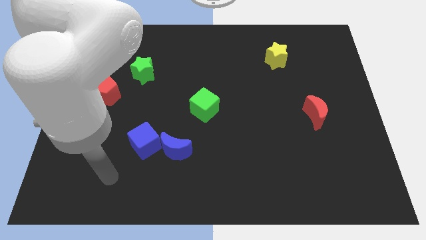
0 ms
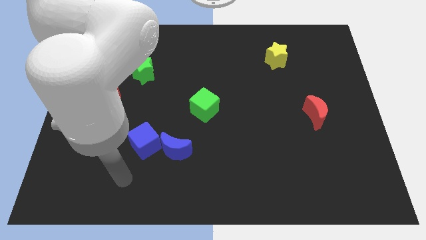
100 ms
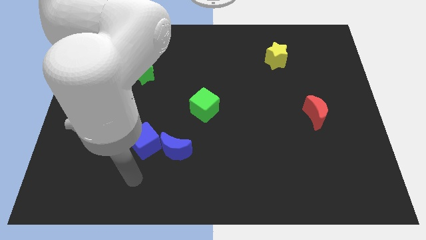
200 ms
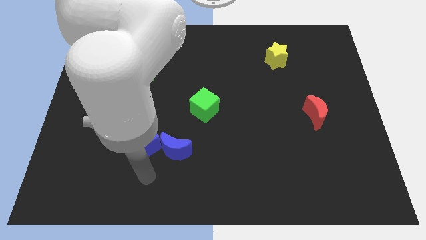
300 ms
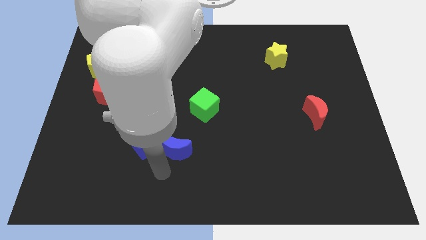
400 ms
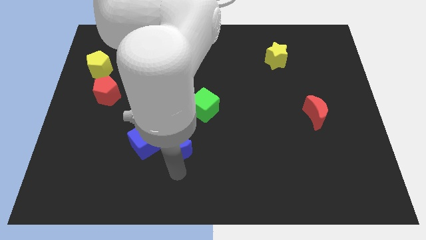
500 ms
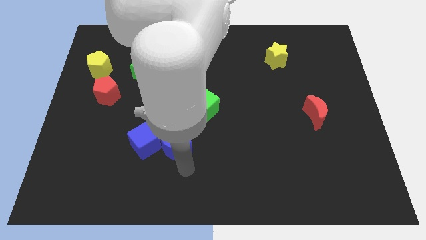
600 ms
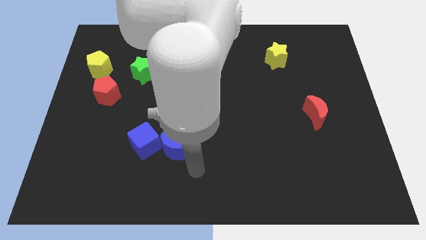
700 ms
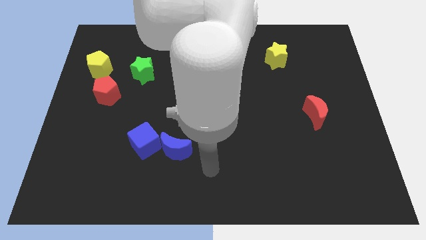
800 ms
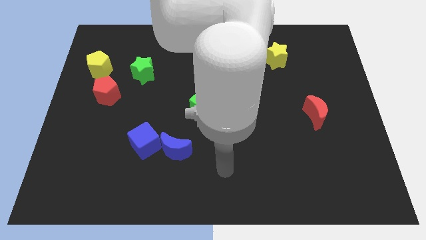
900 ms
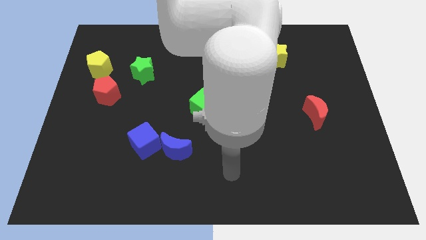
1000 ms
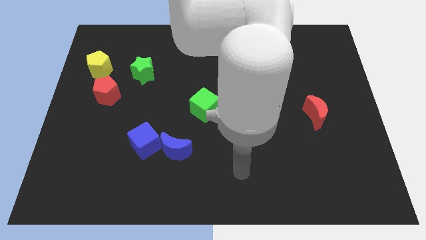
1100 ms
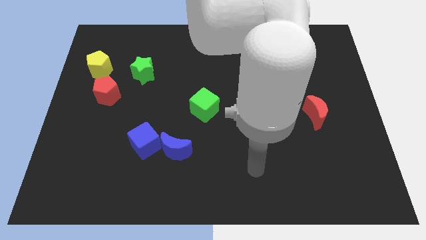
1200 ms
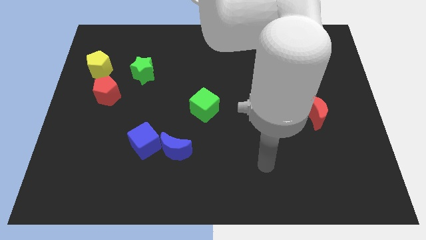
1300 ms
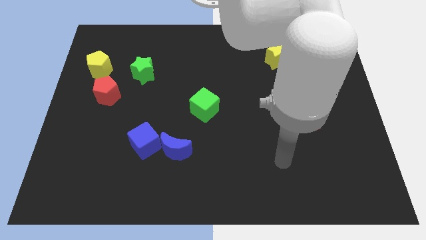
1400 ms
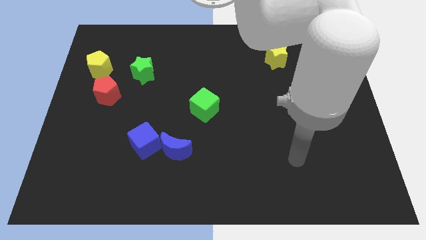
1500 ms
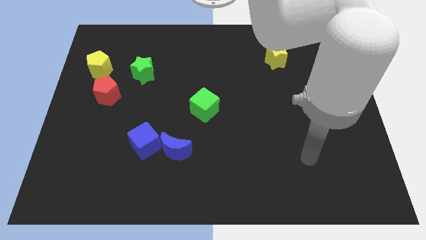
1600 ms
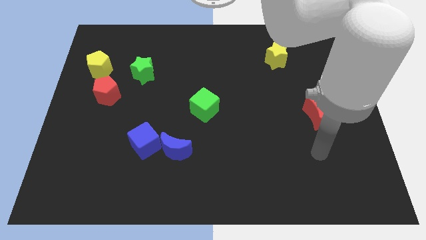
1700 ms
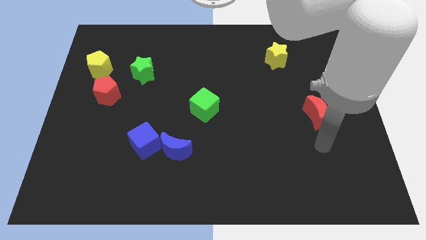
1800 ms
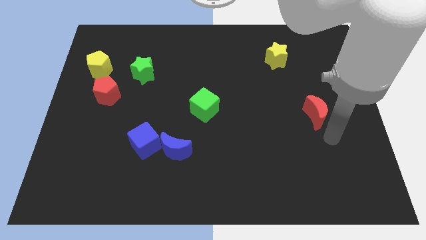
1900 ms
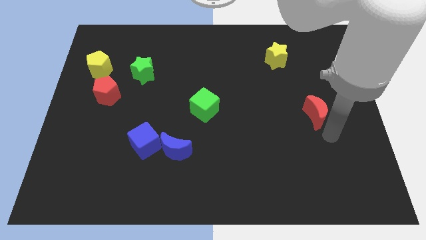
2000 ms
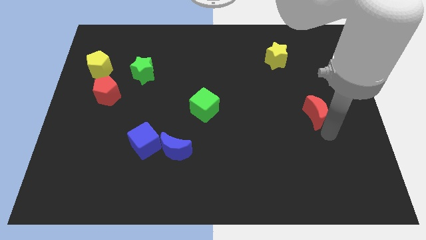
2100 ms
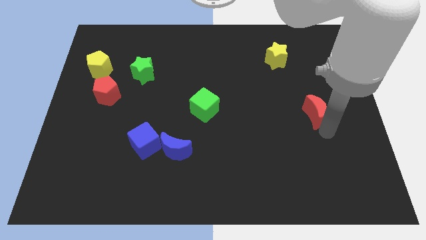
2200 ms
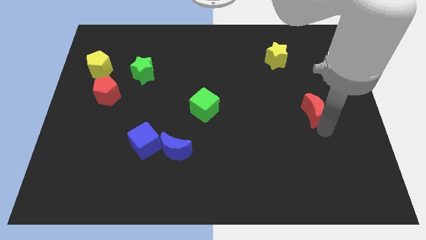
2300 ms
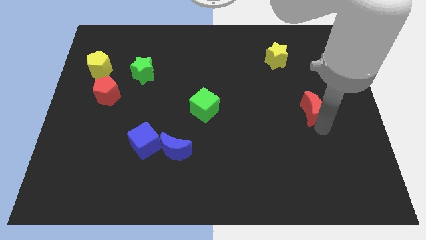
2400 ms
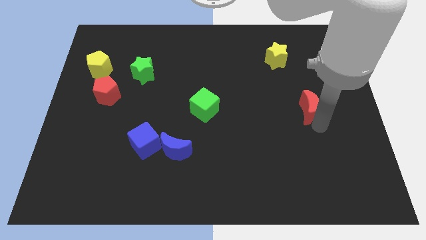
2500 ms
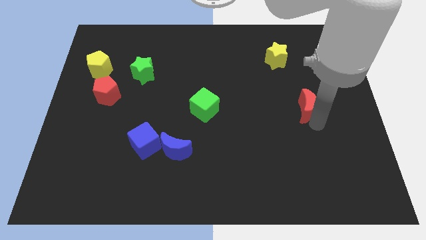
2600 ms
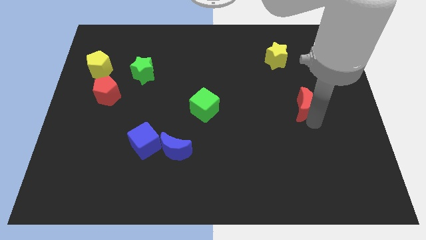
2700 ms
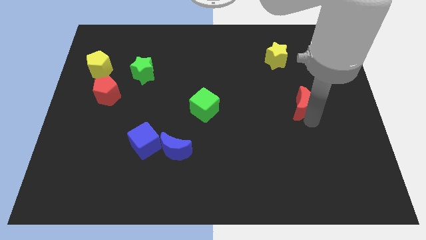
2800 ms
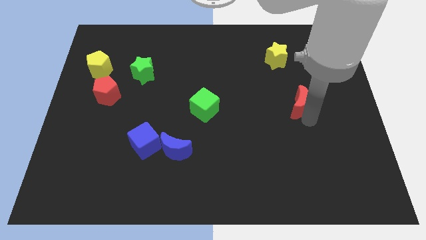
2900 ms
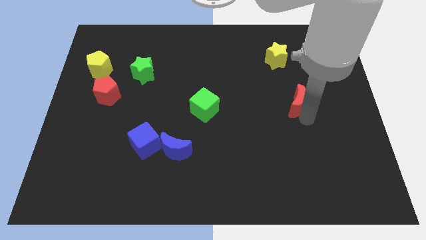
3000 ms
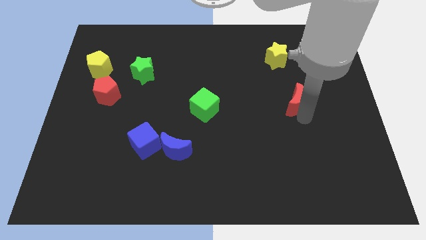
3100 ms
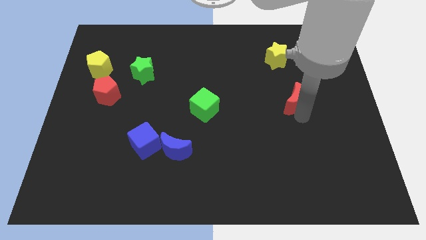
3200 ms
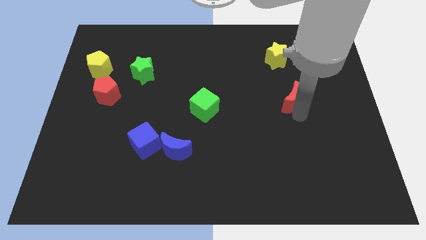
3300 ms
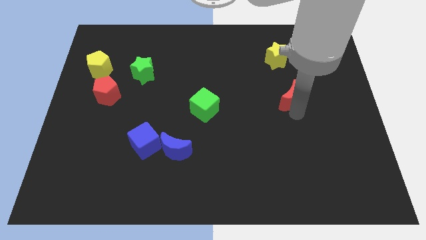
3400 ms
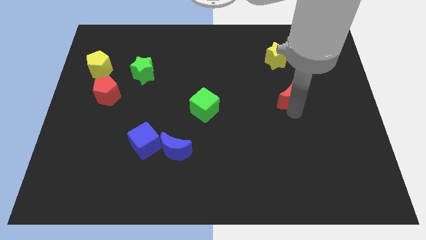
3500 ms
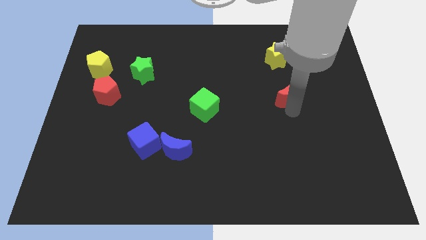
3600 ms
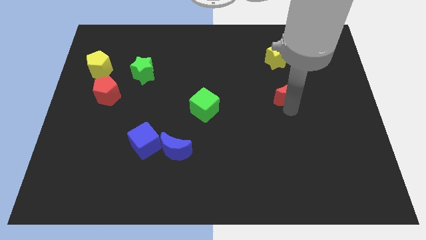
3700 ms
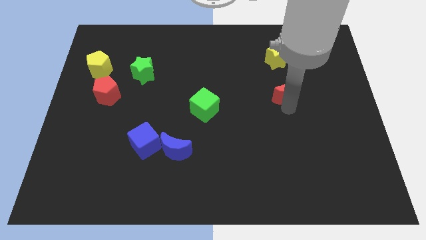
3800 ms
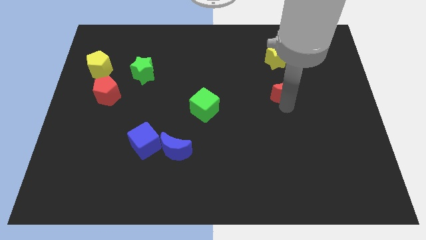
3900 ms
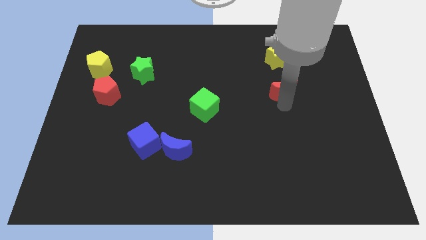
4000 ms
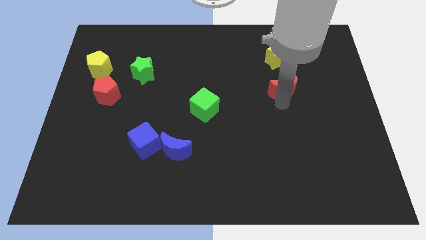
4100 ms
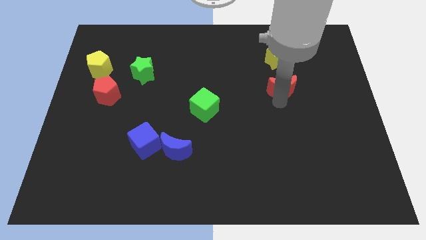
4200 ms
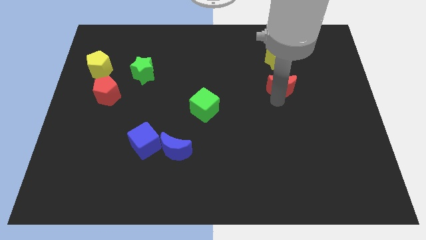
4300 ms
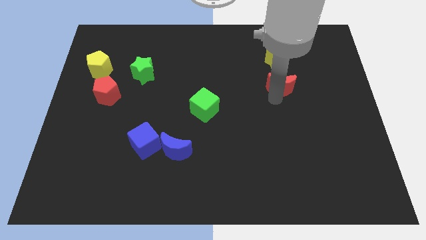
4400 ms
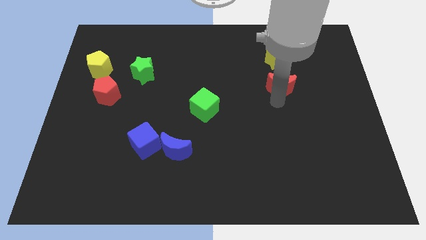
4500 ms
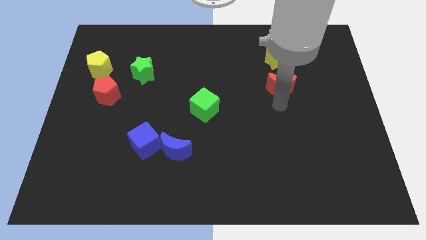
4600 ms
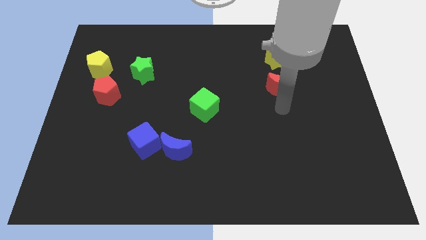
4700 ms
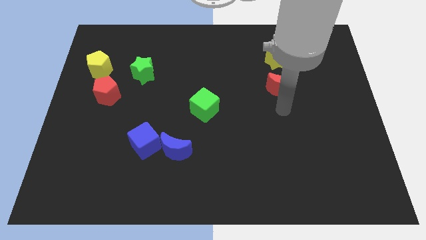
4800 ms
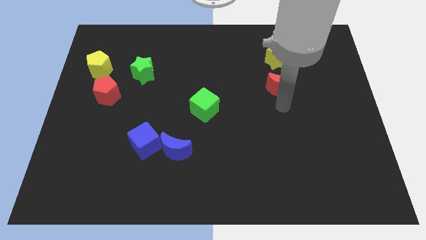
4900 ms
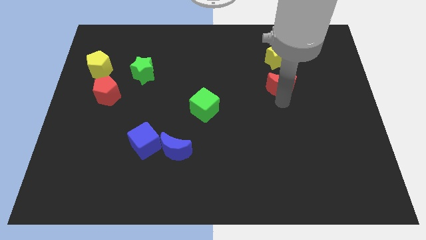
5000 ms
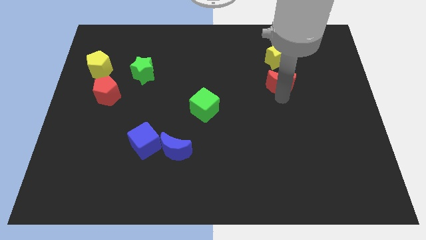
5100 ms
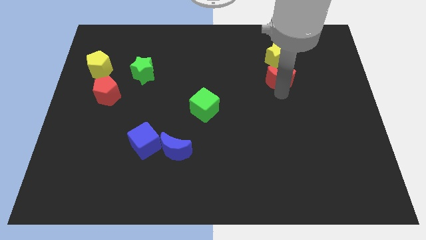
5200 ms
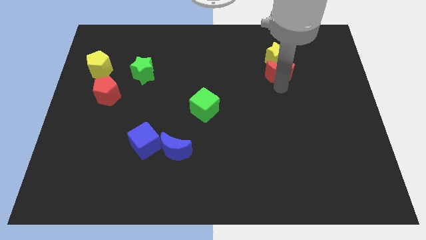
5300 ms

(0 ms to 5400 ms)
move the red moon next to the yellow star

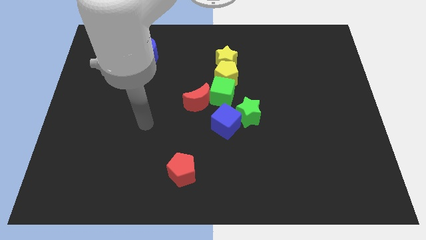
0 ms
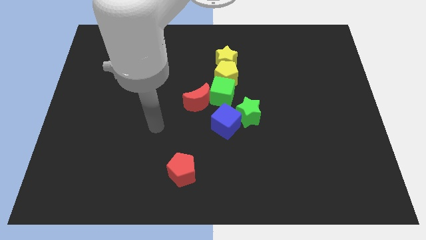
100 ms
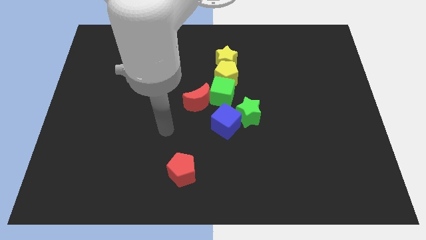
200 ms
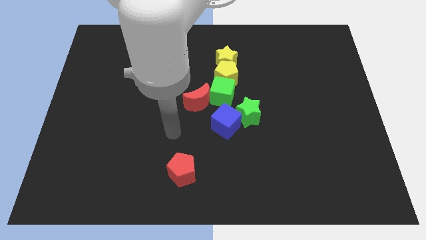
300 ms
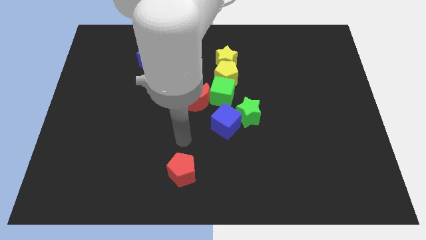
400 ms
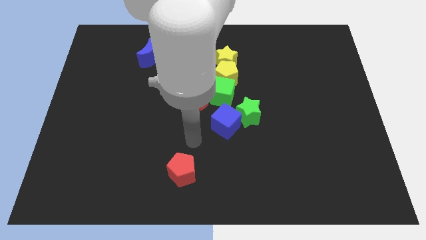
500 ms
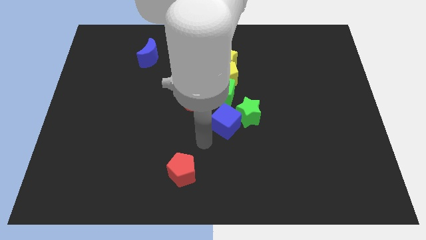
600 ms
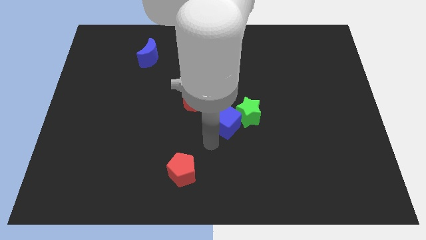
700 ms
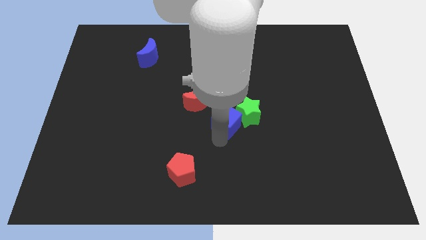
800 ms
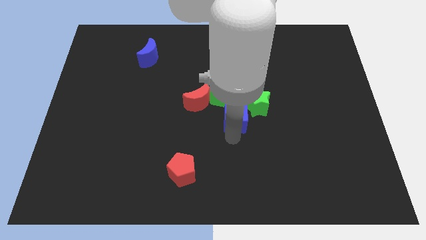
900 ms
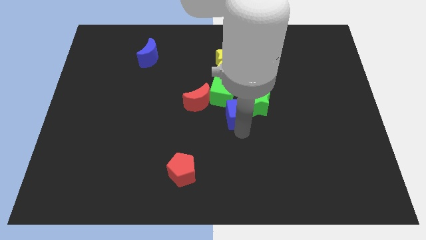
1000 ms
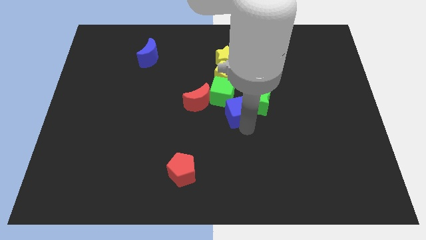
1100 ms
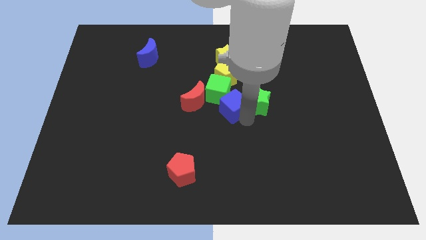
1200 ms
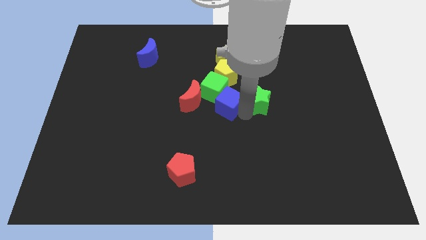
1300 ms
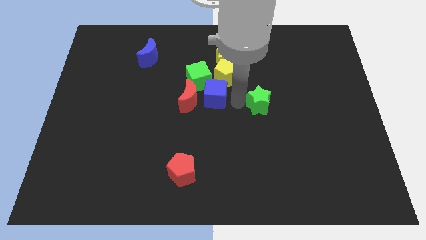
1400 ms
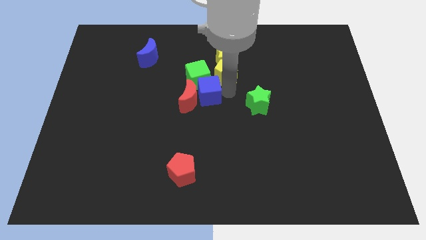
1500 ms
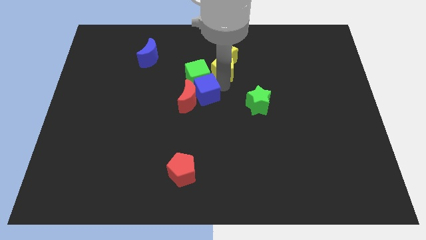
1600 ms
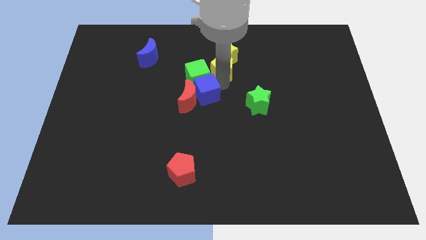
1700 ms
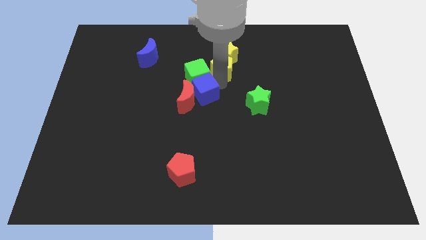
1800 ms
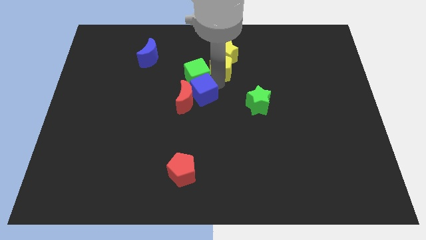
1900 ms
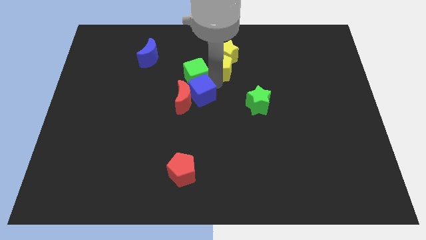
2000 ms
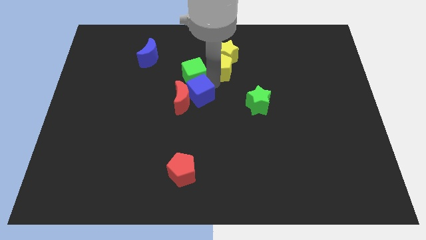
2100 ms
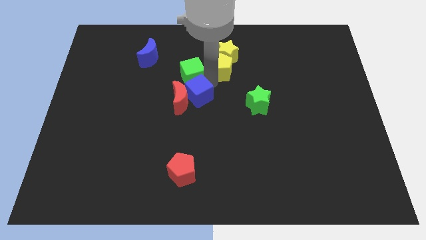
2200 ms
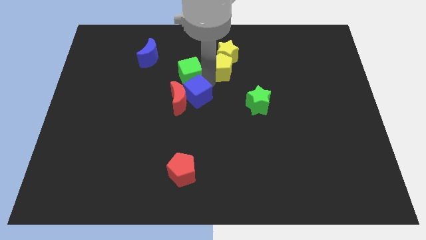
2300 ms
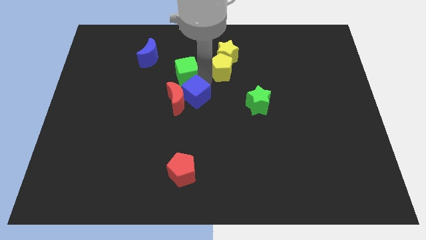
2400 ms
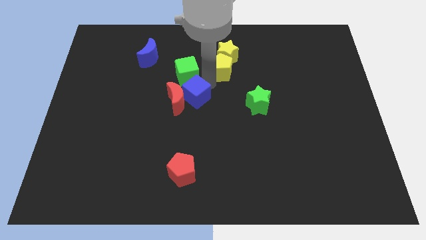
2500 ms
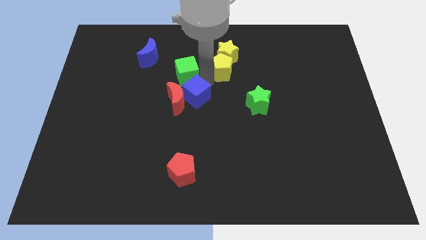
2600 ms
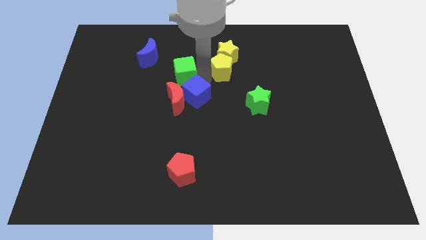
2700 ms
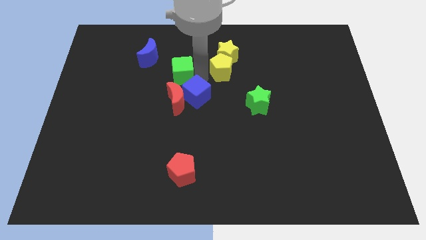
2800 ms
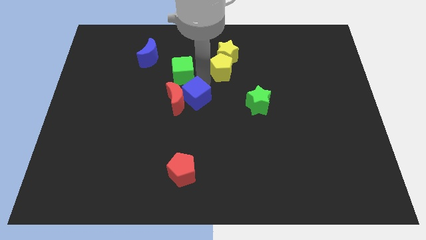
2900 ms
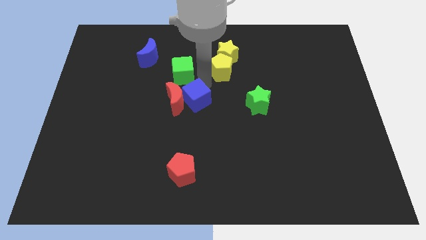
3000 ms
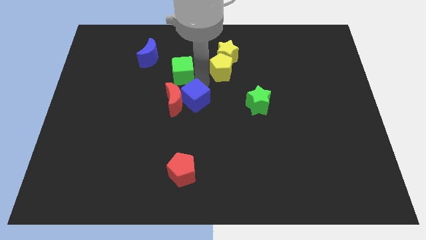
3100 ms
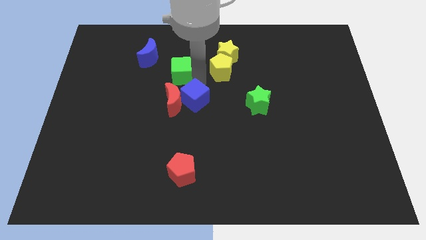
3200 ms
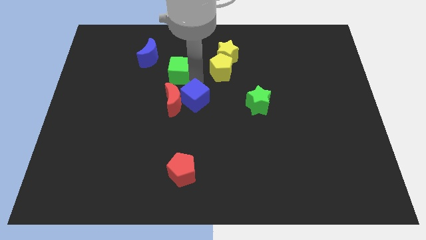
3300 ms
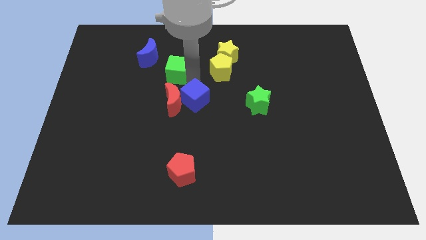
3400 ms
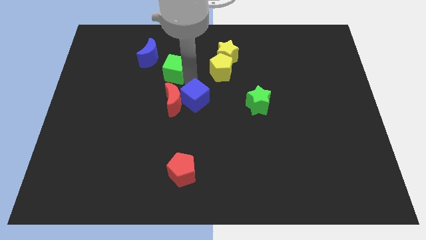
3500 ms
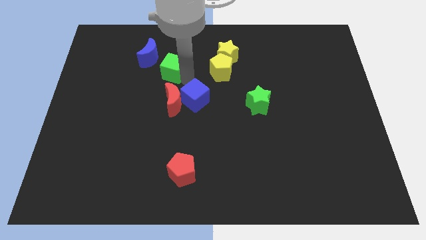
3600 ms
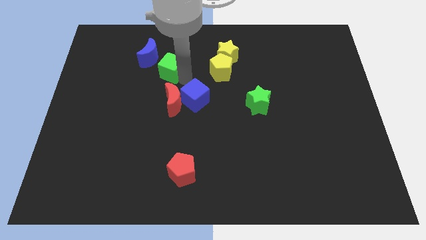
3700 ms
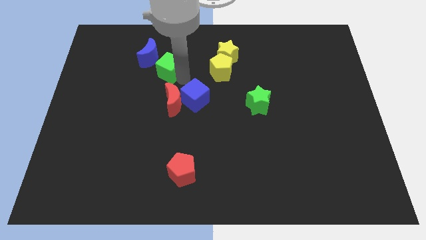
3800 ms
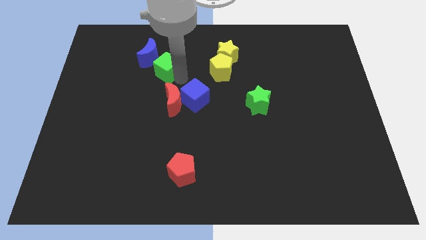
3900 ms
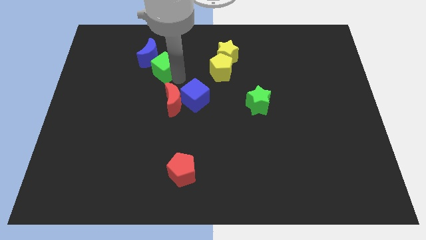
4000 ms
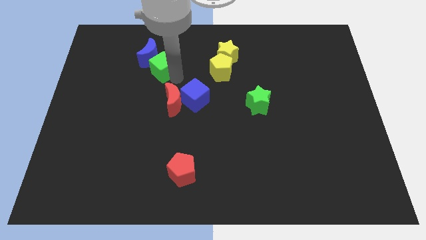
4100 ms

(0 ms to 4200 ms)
move the green cube close to the blue moon
